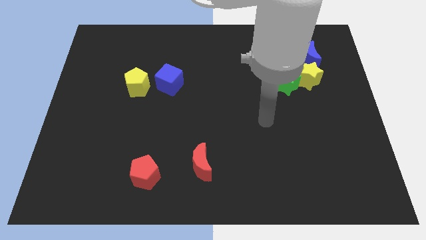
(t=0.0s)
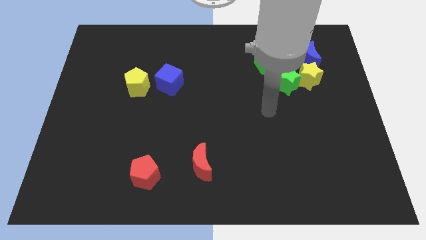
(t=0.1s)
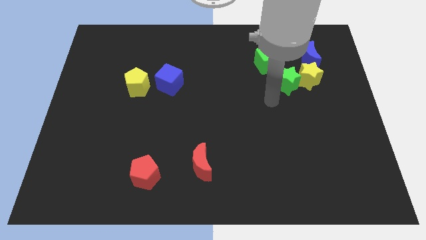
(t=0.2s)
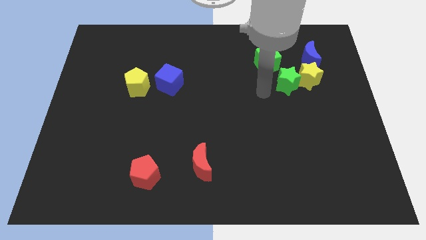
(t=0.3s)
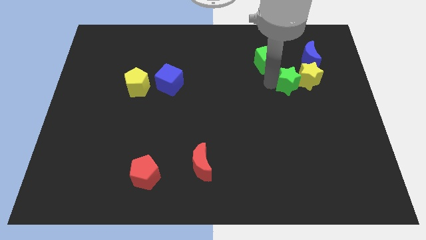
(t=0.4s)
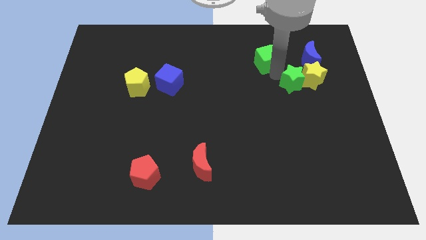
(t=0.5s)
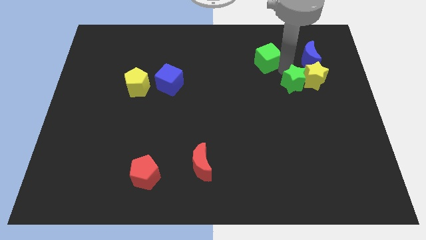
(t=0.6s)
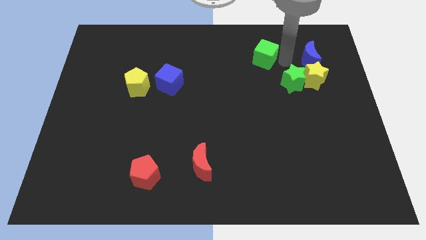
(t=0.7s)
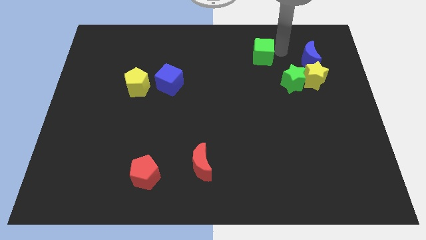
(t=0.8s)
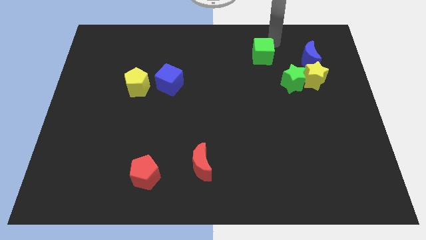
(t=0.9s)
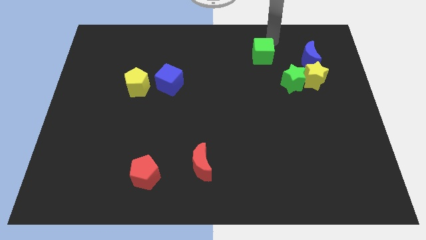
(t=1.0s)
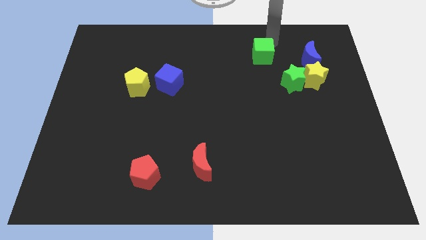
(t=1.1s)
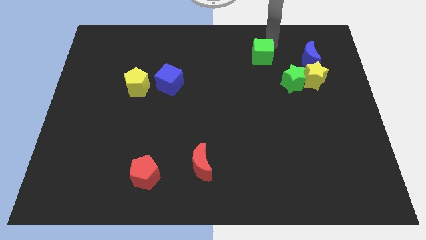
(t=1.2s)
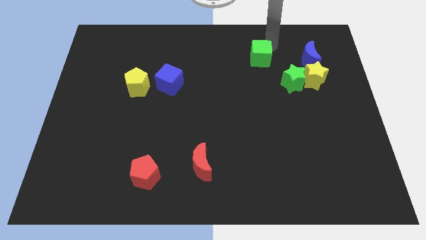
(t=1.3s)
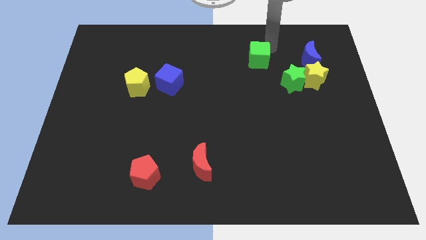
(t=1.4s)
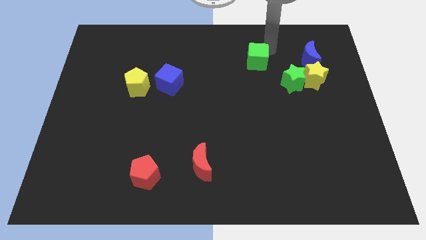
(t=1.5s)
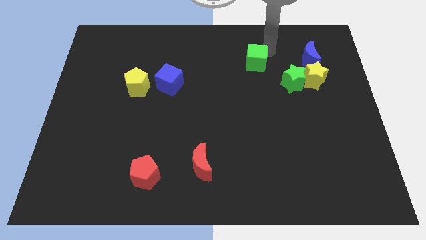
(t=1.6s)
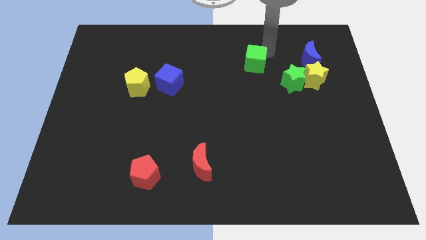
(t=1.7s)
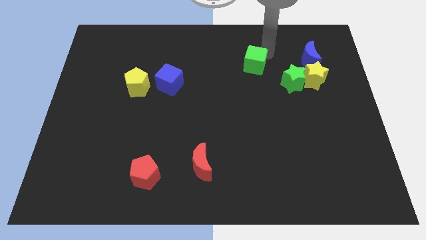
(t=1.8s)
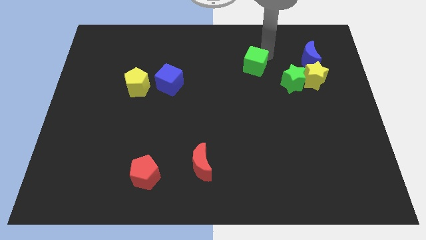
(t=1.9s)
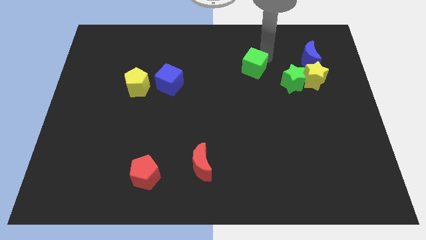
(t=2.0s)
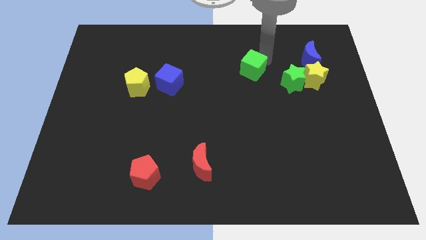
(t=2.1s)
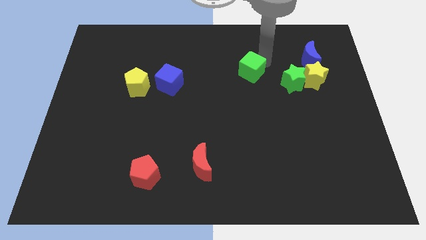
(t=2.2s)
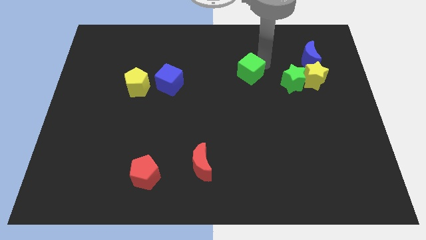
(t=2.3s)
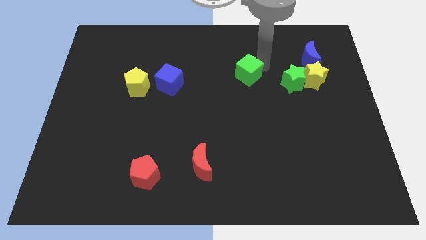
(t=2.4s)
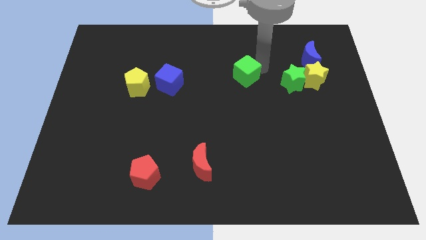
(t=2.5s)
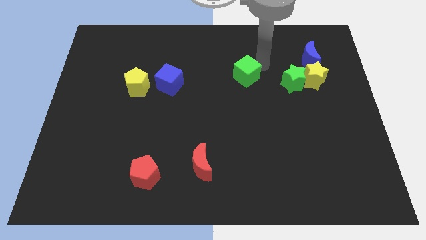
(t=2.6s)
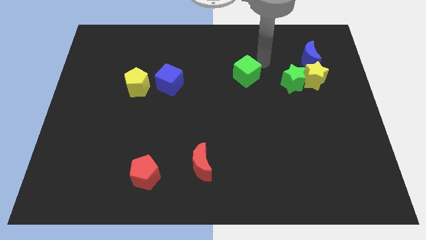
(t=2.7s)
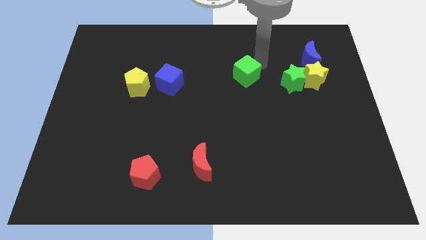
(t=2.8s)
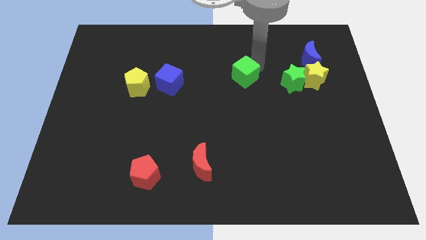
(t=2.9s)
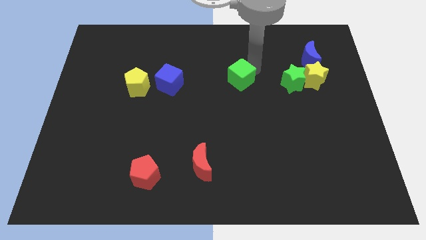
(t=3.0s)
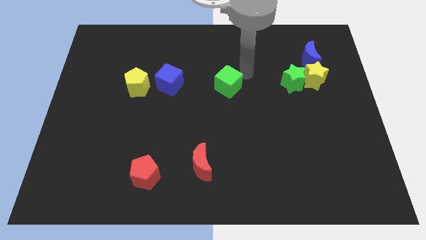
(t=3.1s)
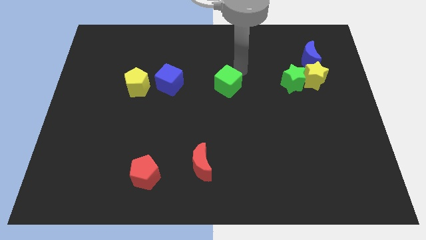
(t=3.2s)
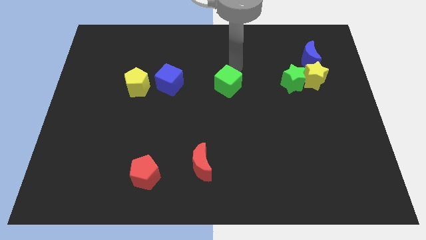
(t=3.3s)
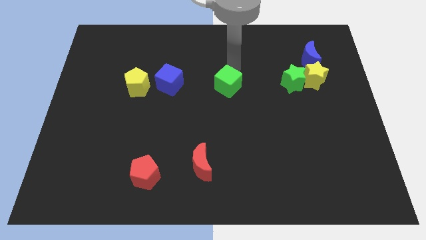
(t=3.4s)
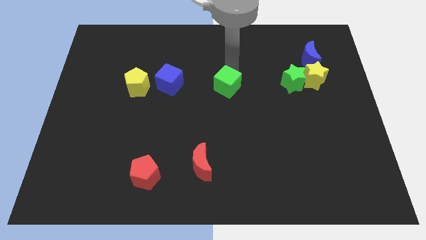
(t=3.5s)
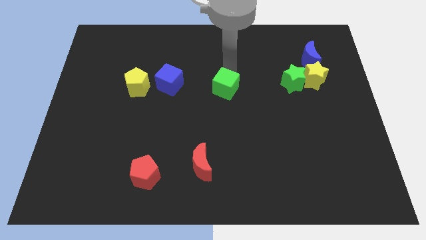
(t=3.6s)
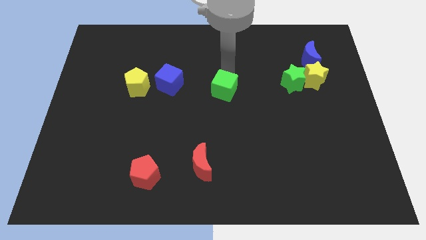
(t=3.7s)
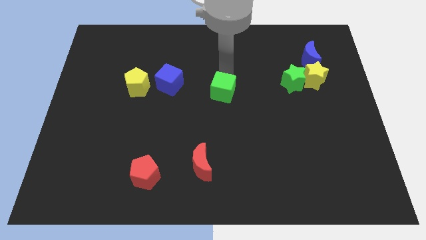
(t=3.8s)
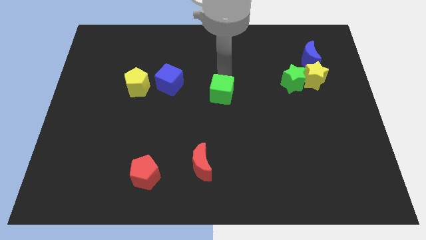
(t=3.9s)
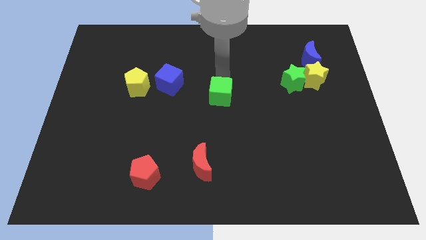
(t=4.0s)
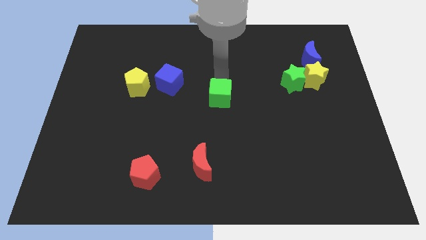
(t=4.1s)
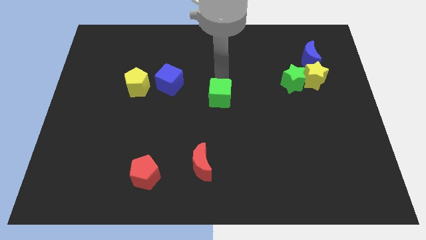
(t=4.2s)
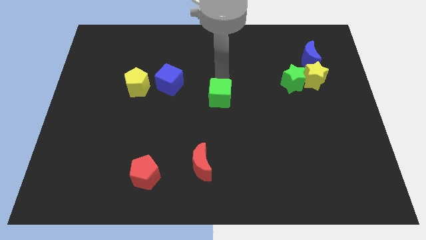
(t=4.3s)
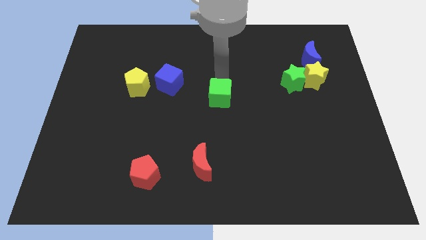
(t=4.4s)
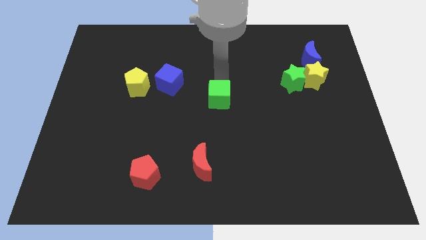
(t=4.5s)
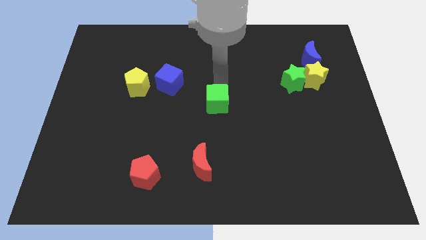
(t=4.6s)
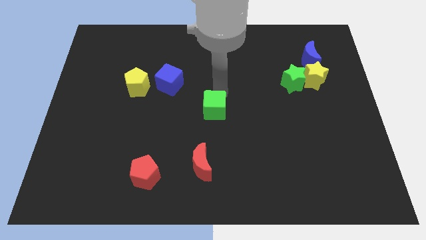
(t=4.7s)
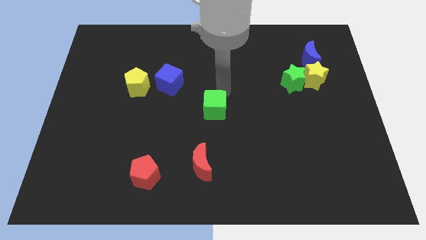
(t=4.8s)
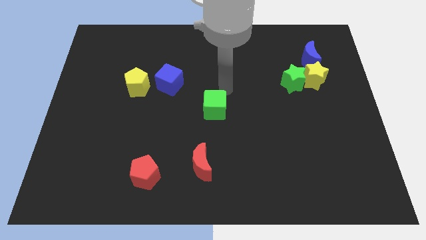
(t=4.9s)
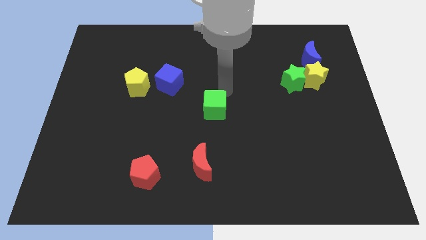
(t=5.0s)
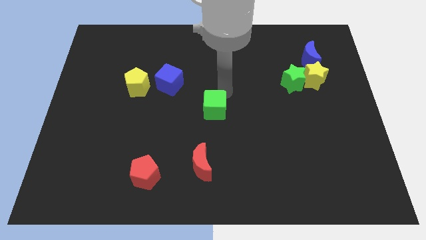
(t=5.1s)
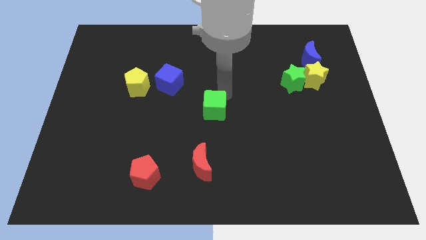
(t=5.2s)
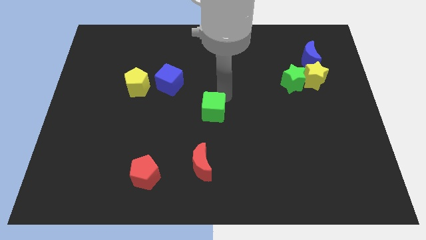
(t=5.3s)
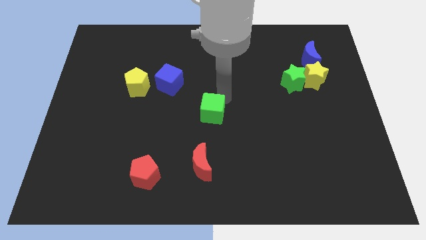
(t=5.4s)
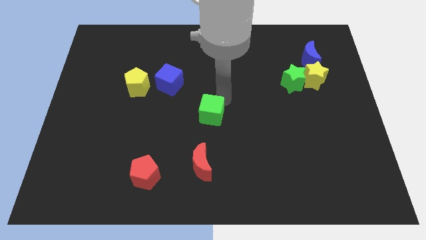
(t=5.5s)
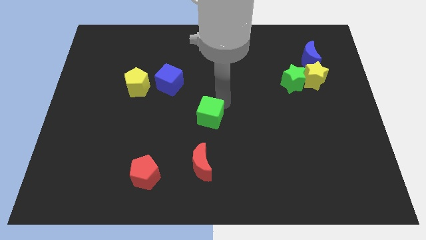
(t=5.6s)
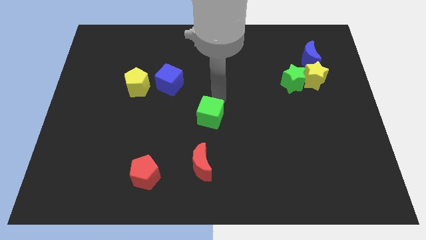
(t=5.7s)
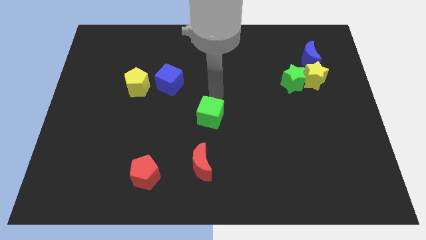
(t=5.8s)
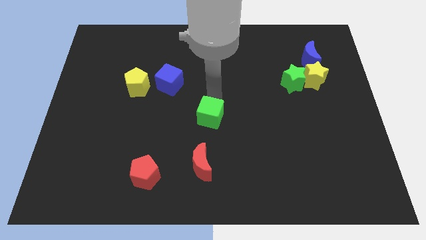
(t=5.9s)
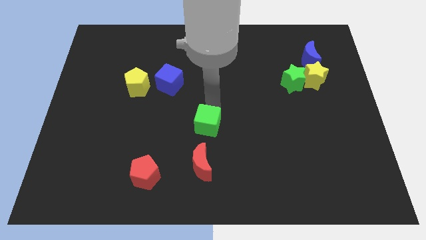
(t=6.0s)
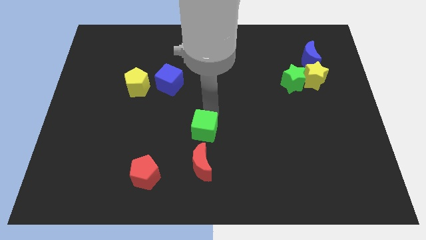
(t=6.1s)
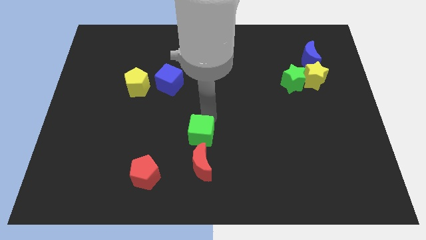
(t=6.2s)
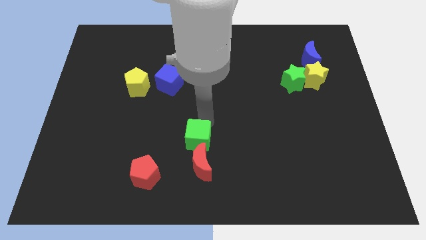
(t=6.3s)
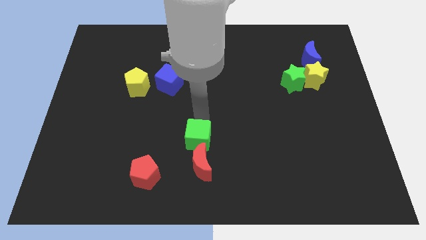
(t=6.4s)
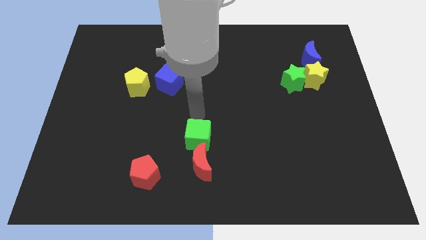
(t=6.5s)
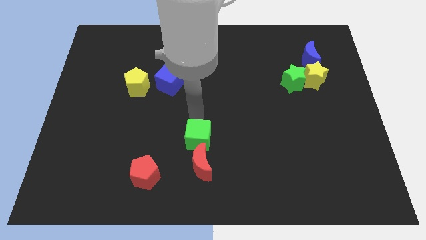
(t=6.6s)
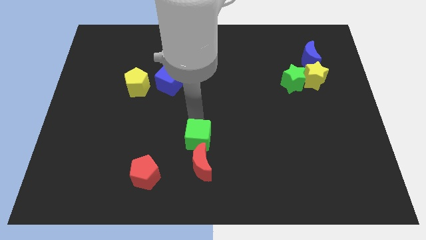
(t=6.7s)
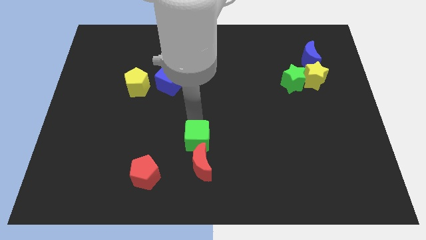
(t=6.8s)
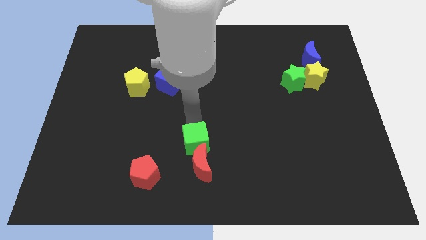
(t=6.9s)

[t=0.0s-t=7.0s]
move the green cube close to the red moon
